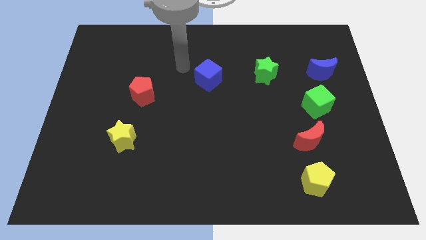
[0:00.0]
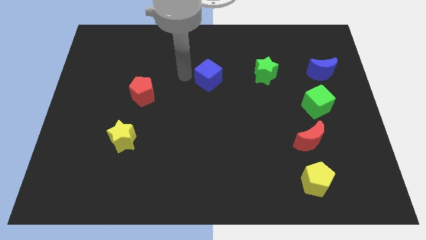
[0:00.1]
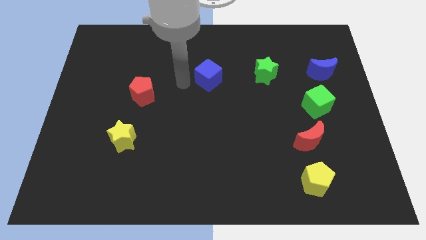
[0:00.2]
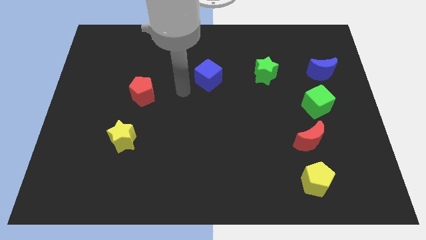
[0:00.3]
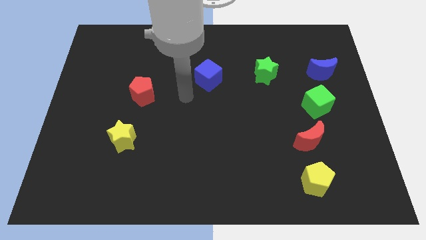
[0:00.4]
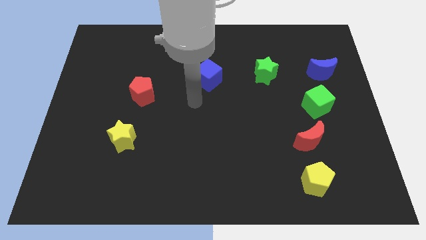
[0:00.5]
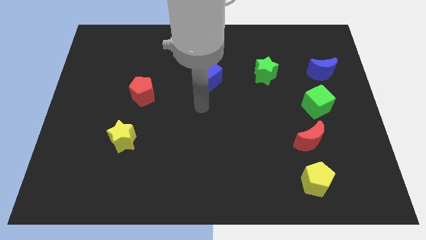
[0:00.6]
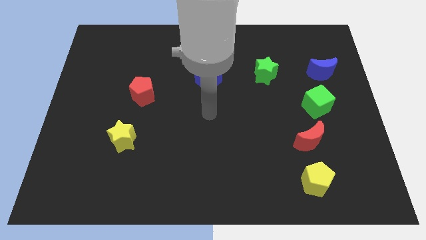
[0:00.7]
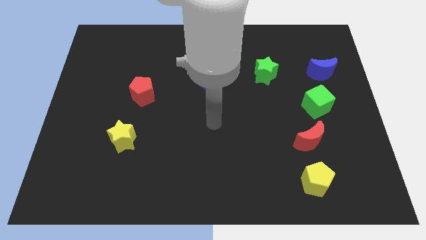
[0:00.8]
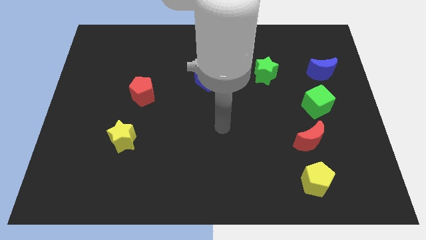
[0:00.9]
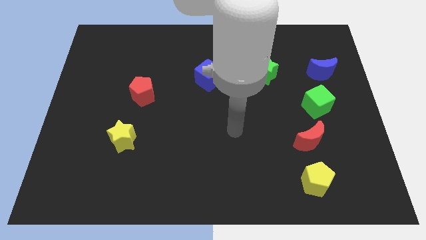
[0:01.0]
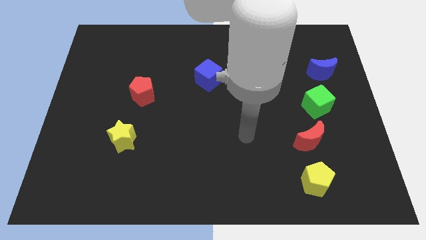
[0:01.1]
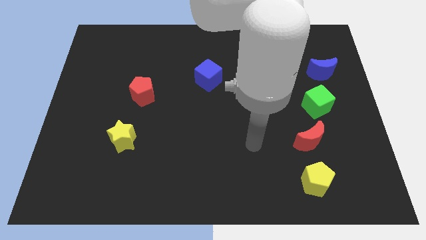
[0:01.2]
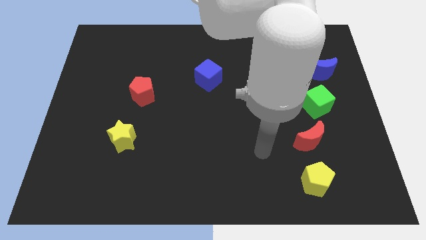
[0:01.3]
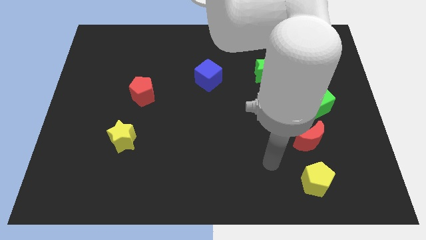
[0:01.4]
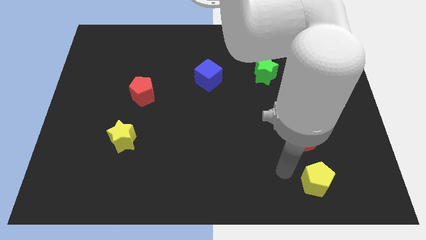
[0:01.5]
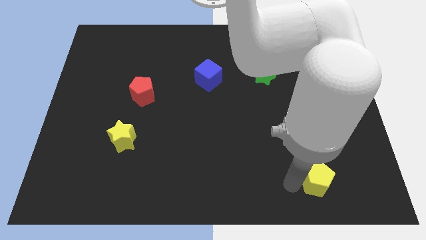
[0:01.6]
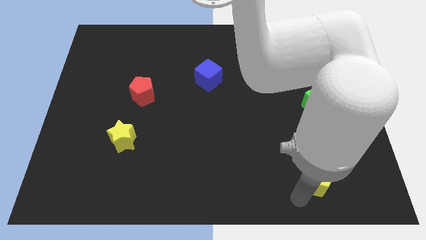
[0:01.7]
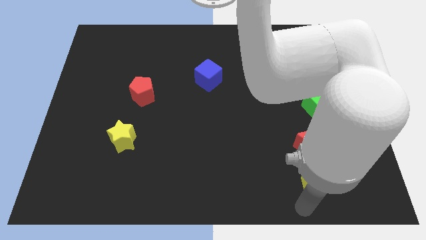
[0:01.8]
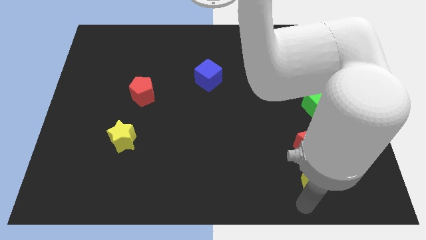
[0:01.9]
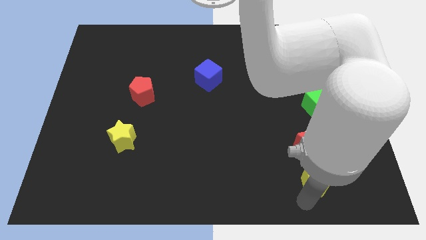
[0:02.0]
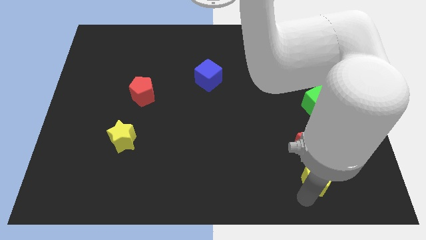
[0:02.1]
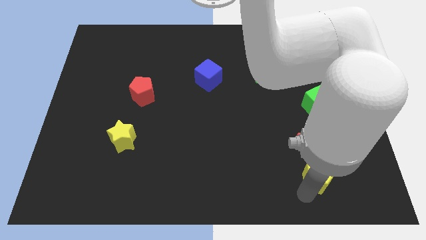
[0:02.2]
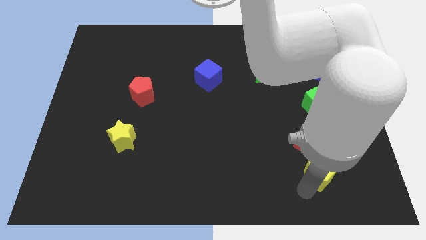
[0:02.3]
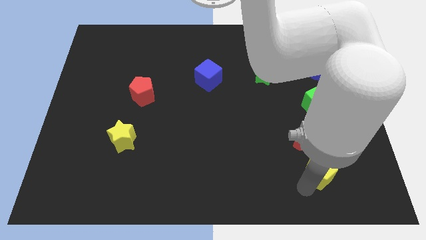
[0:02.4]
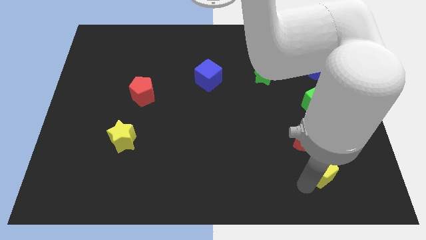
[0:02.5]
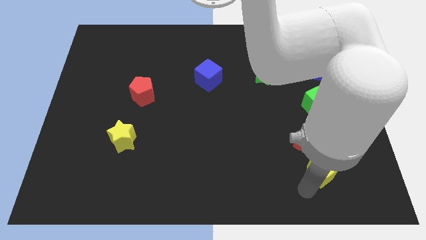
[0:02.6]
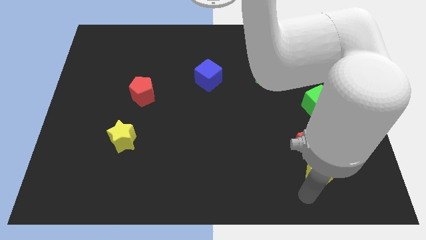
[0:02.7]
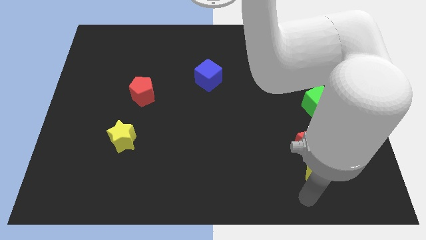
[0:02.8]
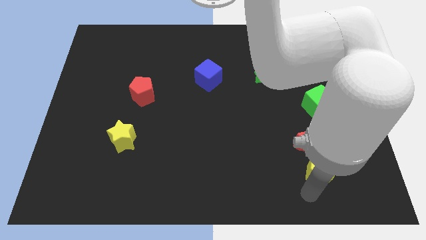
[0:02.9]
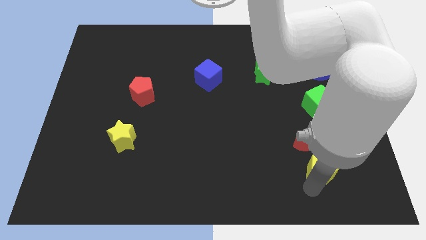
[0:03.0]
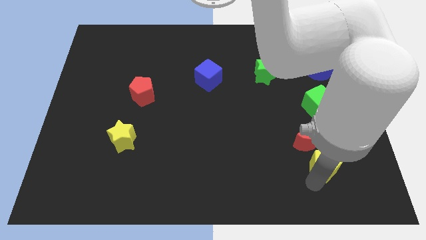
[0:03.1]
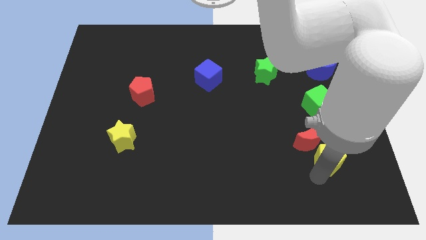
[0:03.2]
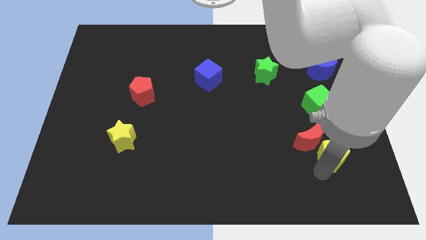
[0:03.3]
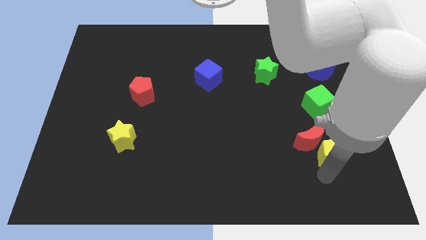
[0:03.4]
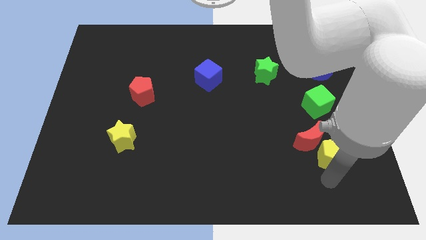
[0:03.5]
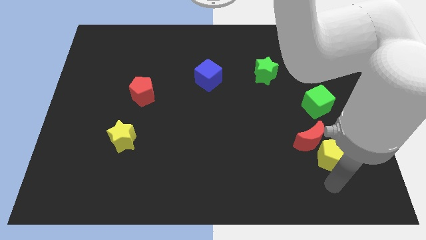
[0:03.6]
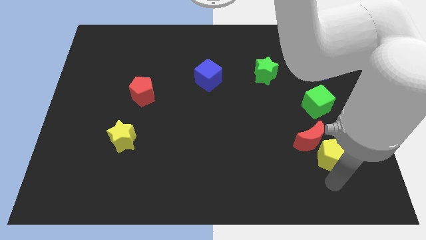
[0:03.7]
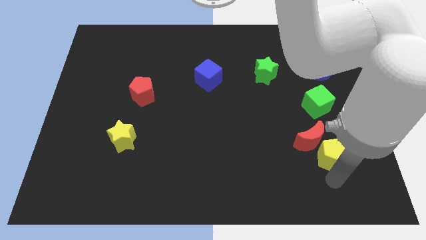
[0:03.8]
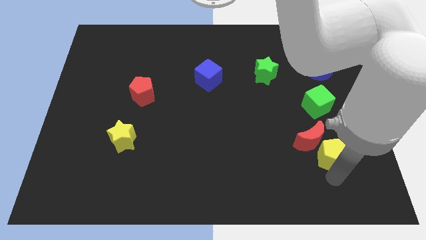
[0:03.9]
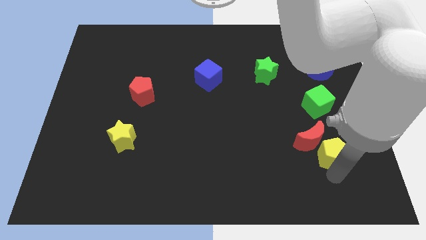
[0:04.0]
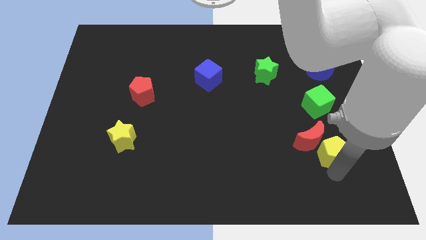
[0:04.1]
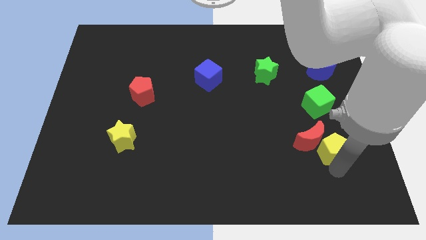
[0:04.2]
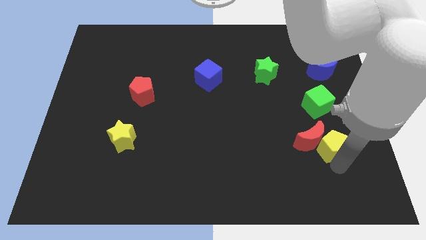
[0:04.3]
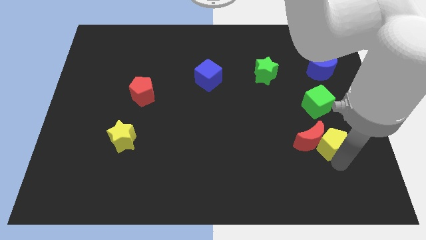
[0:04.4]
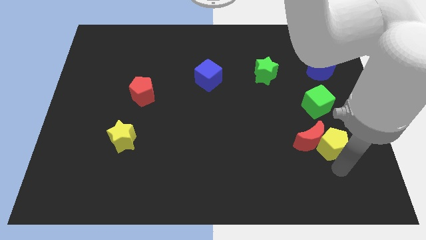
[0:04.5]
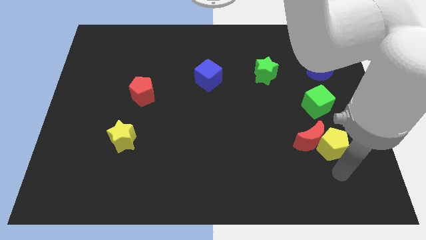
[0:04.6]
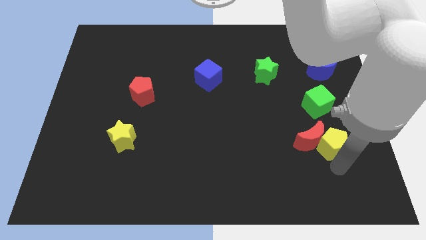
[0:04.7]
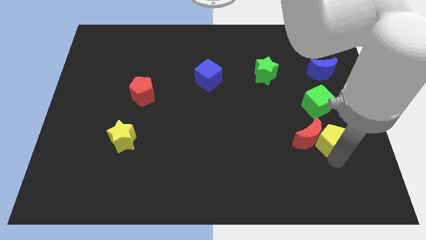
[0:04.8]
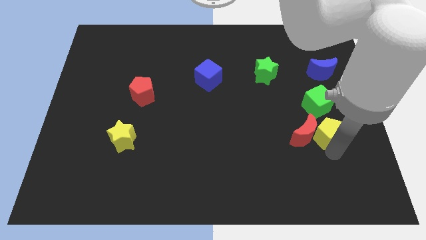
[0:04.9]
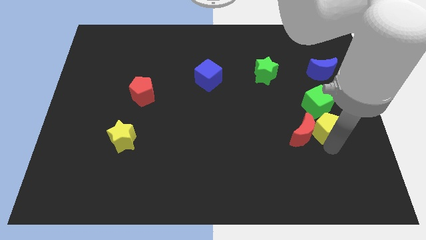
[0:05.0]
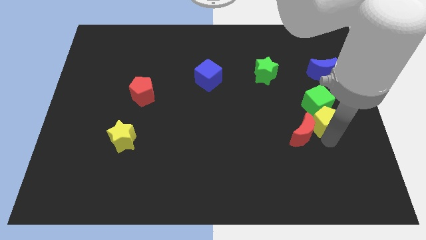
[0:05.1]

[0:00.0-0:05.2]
slide the yellow pentagon to the green cube

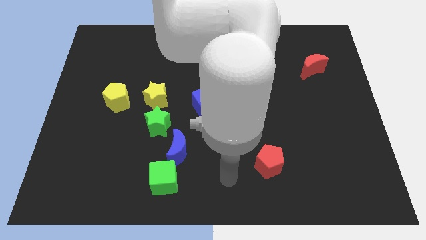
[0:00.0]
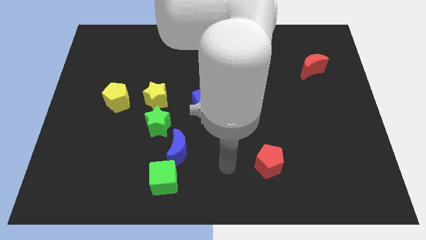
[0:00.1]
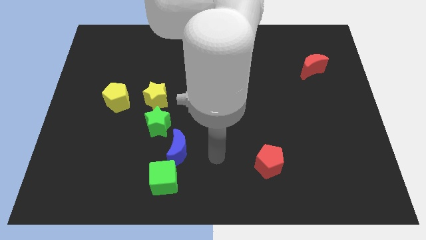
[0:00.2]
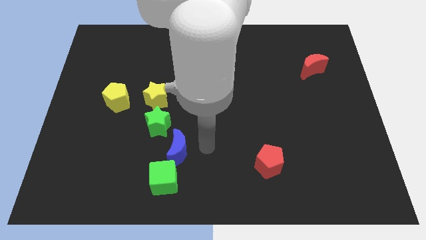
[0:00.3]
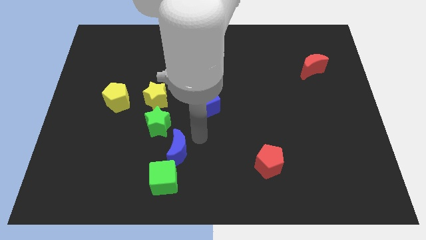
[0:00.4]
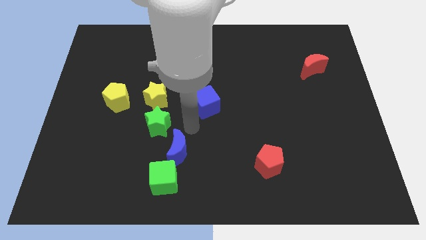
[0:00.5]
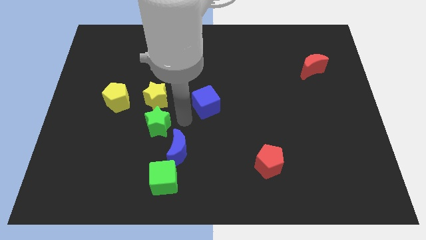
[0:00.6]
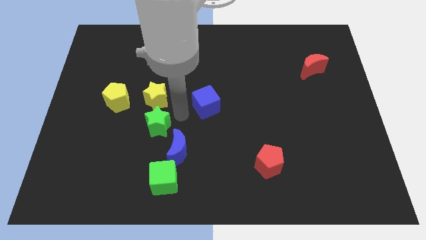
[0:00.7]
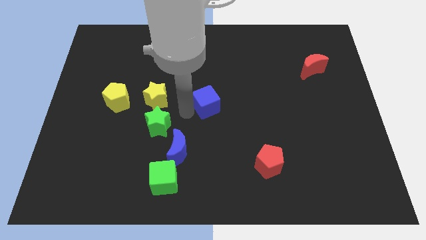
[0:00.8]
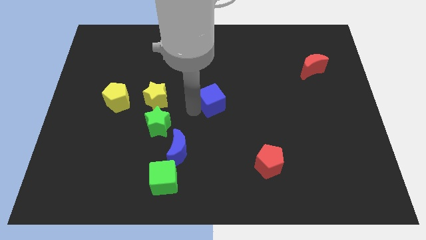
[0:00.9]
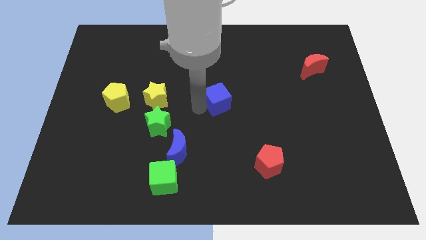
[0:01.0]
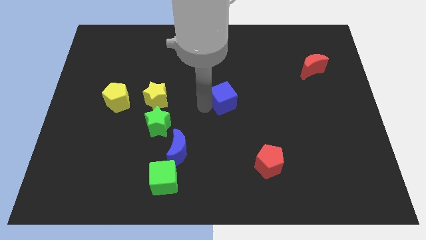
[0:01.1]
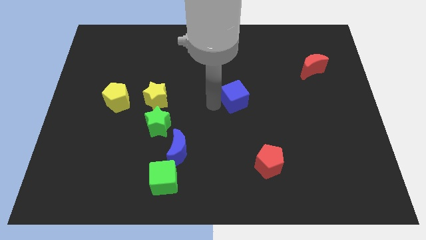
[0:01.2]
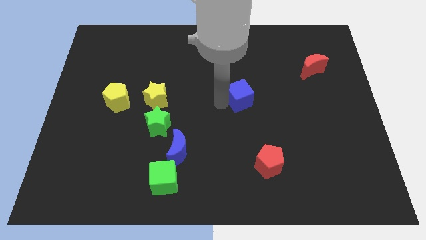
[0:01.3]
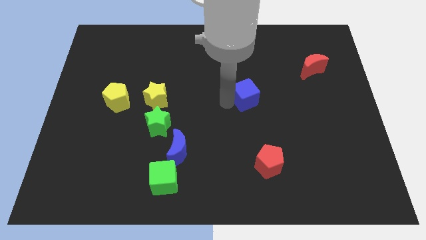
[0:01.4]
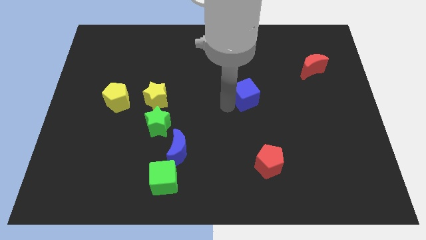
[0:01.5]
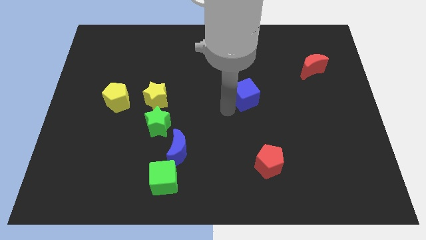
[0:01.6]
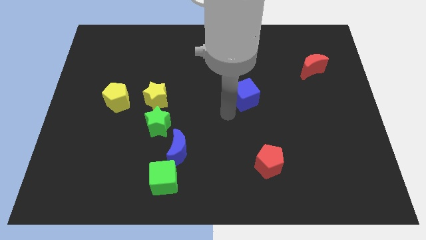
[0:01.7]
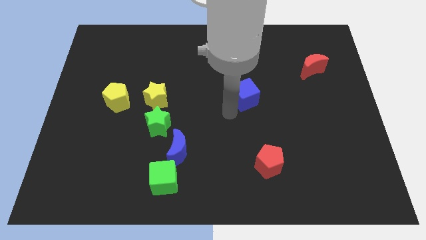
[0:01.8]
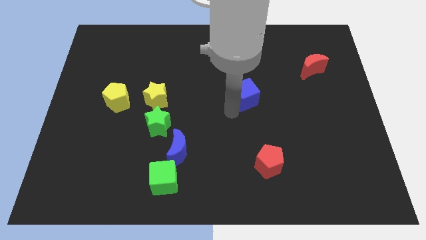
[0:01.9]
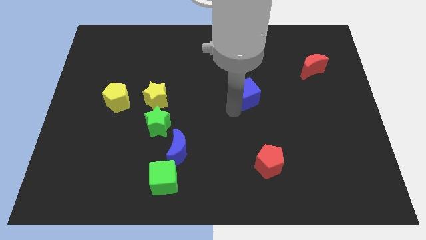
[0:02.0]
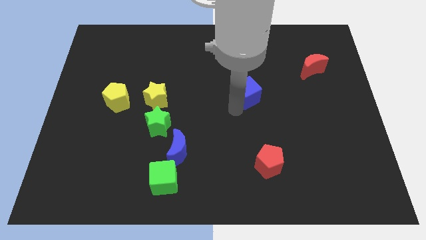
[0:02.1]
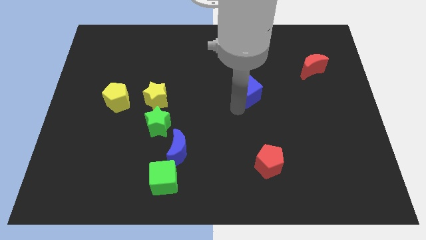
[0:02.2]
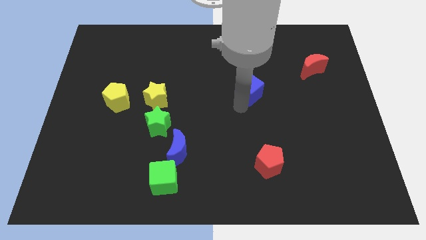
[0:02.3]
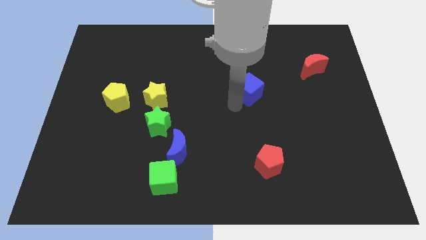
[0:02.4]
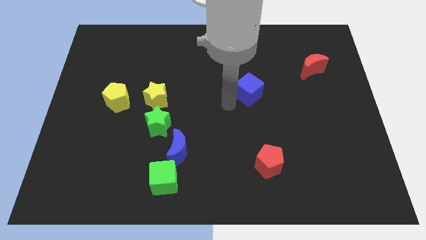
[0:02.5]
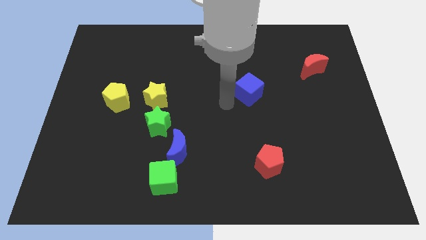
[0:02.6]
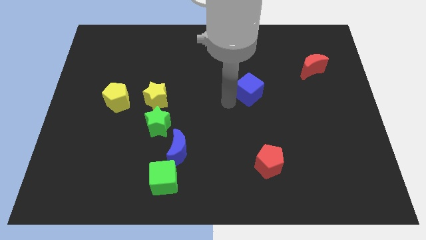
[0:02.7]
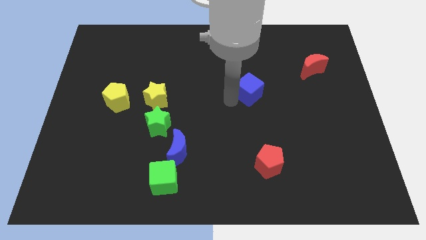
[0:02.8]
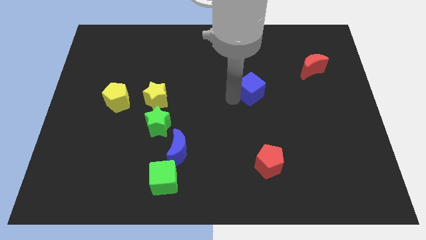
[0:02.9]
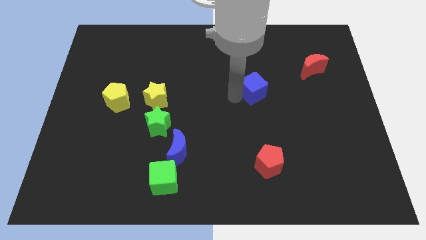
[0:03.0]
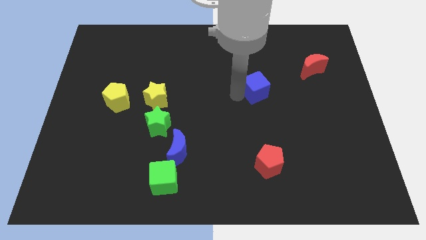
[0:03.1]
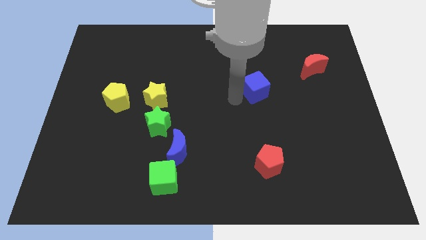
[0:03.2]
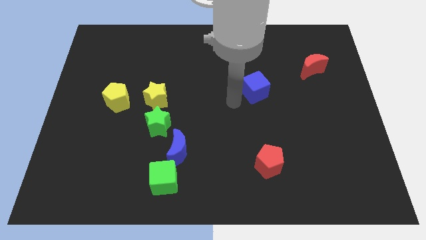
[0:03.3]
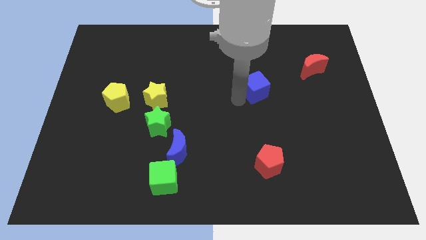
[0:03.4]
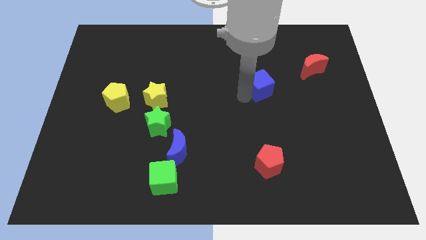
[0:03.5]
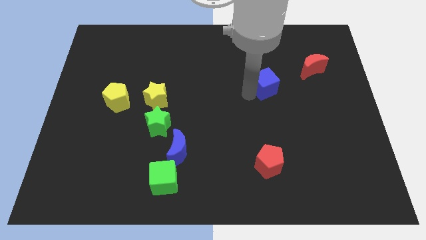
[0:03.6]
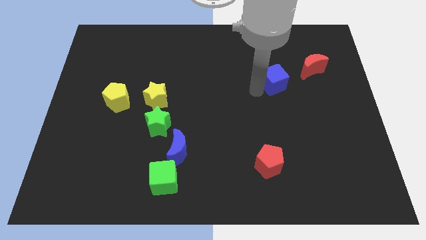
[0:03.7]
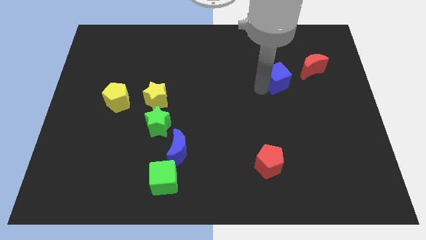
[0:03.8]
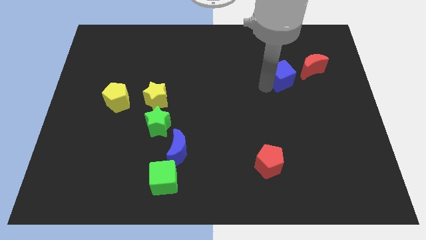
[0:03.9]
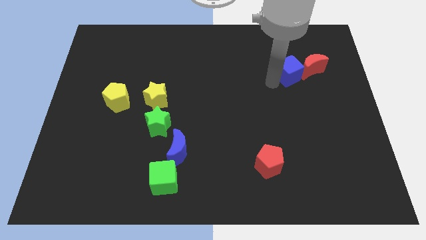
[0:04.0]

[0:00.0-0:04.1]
push the blue cube next to the red moon
